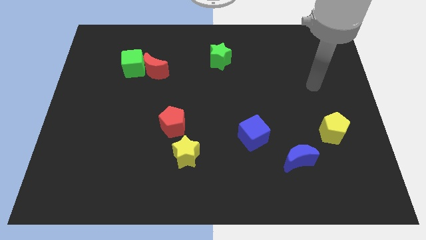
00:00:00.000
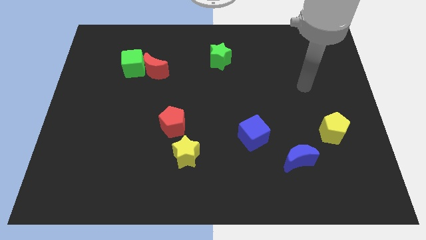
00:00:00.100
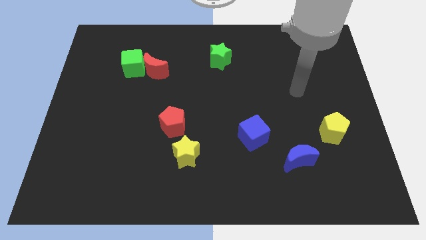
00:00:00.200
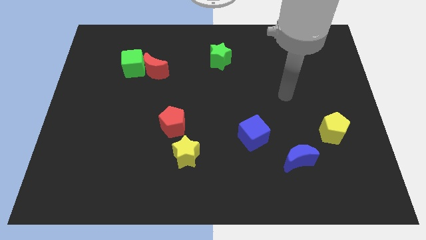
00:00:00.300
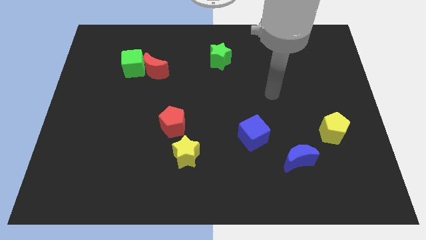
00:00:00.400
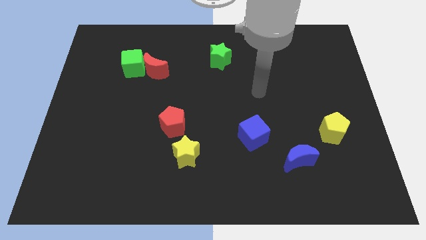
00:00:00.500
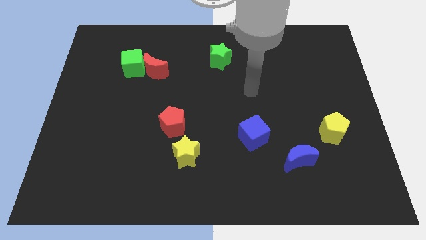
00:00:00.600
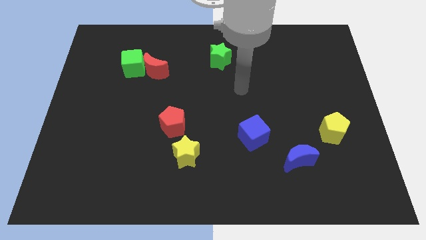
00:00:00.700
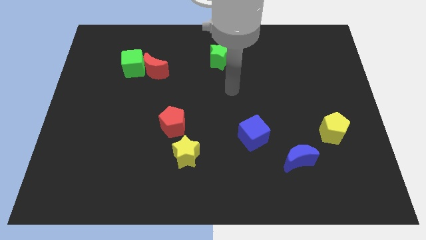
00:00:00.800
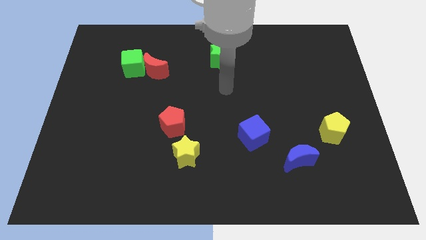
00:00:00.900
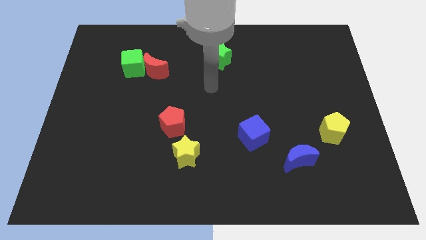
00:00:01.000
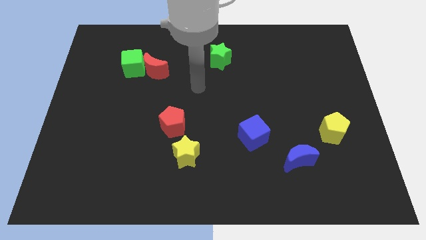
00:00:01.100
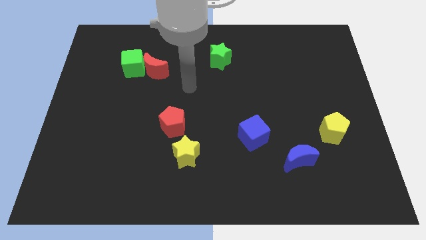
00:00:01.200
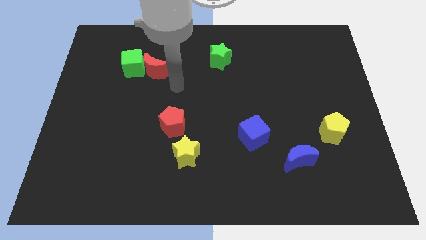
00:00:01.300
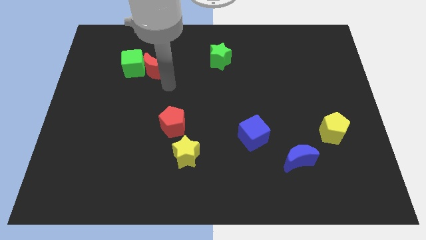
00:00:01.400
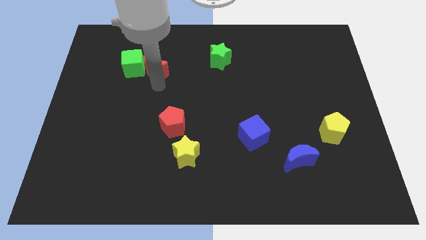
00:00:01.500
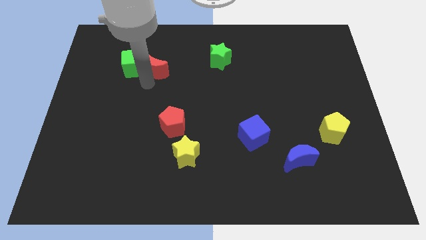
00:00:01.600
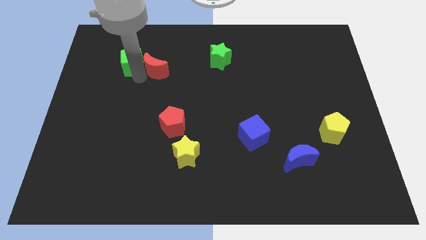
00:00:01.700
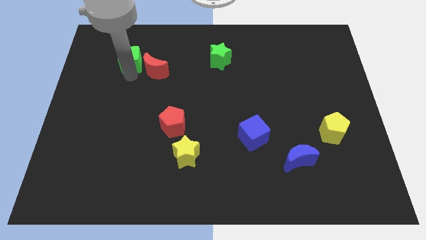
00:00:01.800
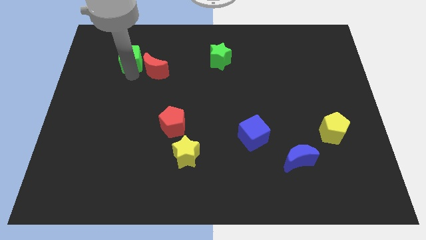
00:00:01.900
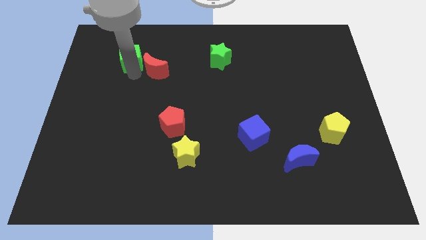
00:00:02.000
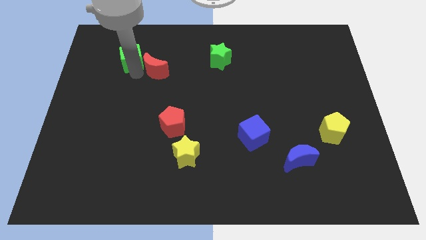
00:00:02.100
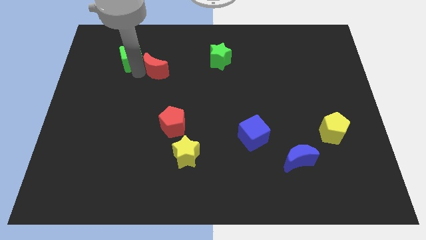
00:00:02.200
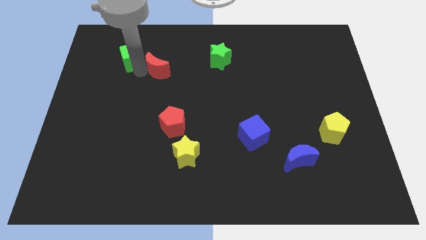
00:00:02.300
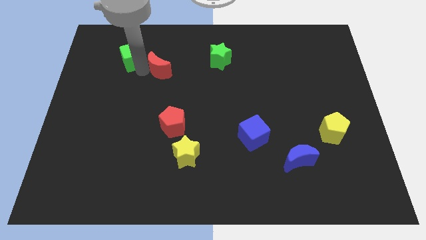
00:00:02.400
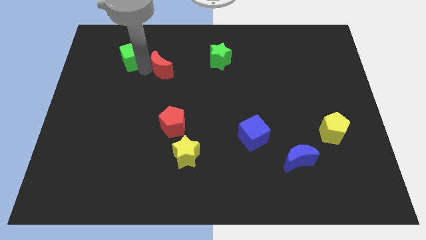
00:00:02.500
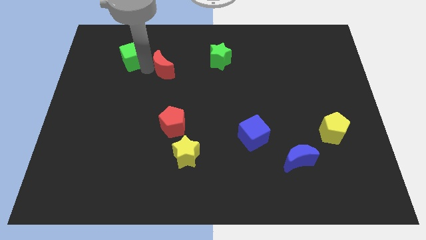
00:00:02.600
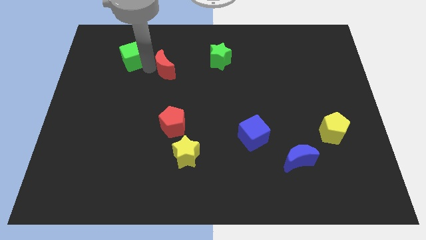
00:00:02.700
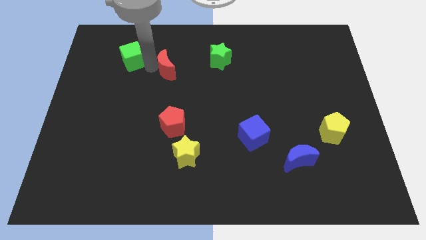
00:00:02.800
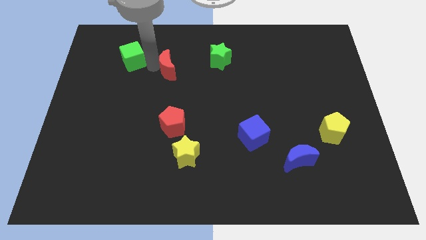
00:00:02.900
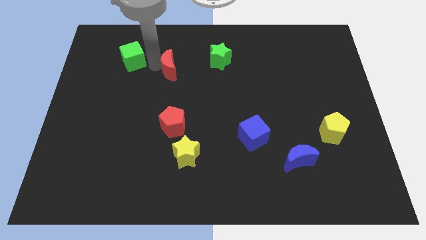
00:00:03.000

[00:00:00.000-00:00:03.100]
pull the red moon apart from the green cube

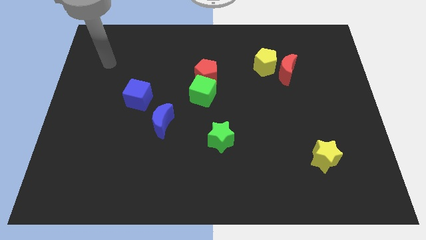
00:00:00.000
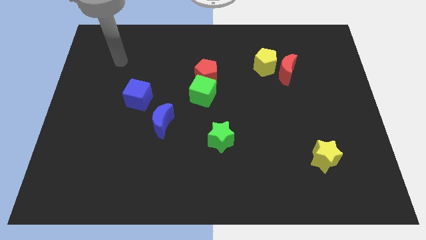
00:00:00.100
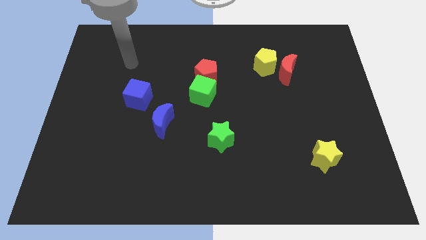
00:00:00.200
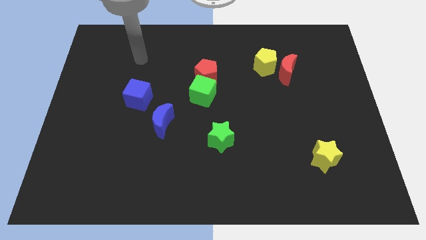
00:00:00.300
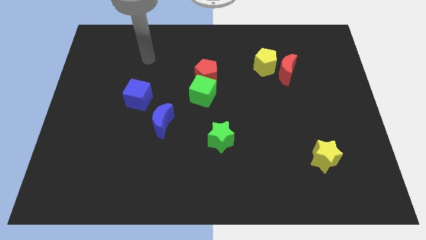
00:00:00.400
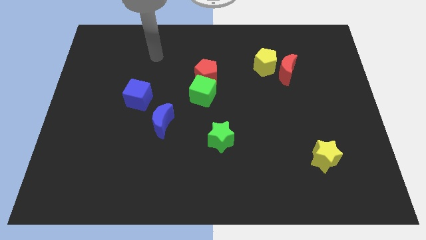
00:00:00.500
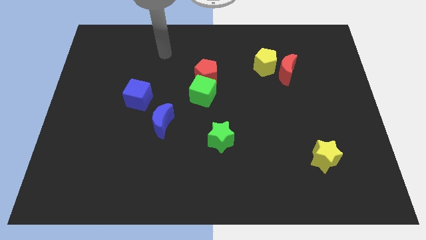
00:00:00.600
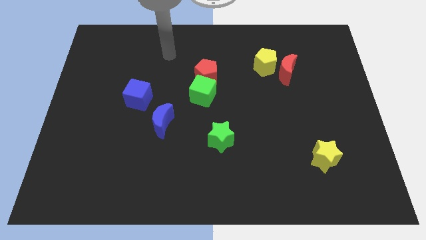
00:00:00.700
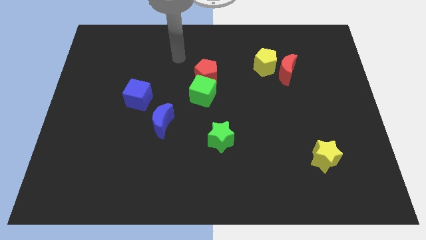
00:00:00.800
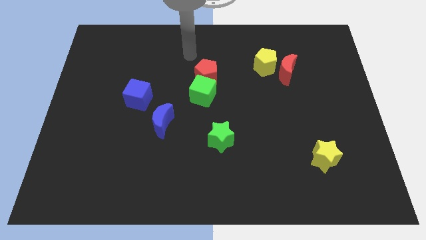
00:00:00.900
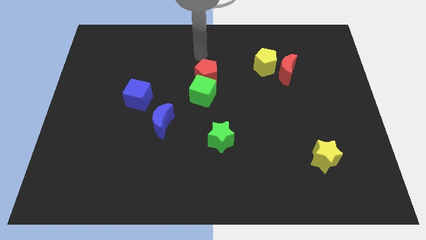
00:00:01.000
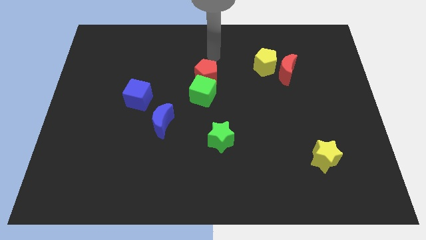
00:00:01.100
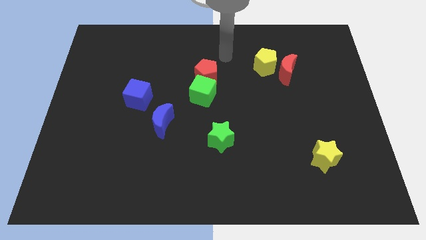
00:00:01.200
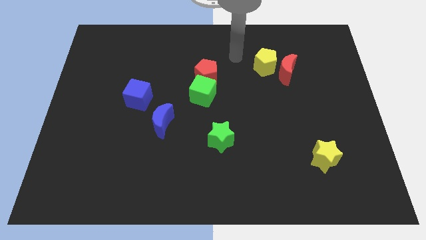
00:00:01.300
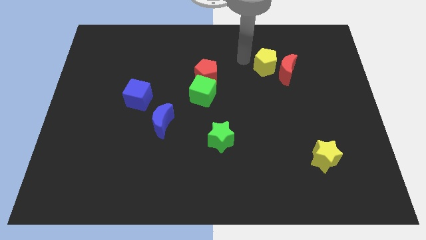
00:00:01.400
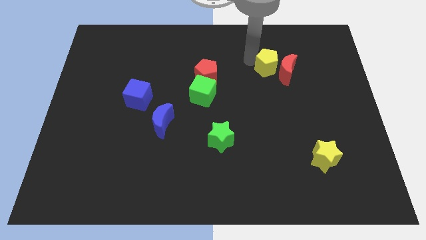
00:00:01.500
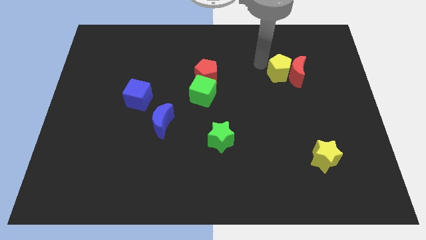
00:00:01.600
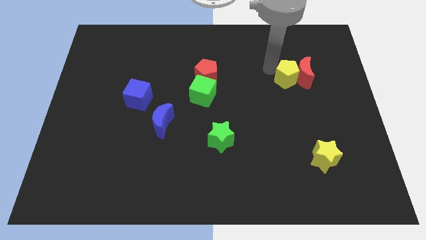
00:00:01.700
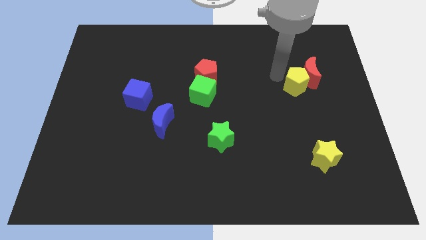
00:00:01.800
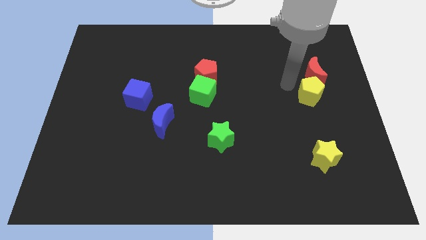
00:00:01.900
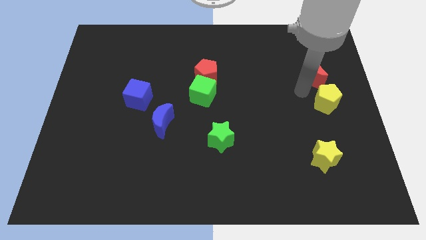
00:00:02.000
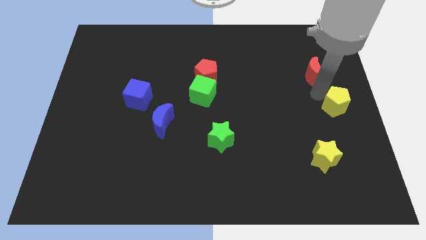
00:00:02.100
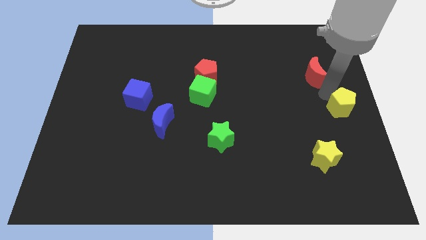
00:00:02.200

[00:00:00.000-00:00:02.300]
separate the red moon from the yellow pentagon

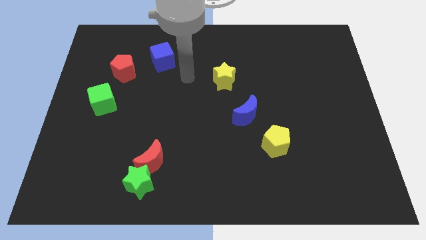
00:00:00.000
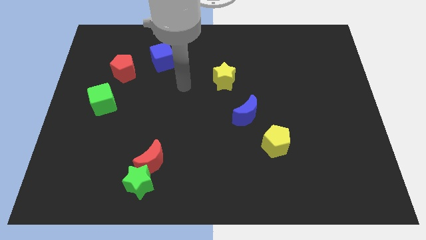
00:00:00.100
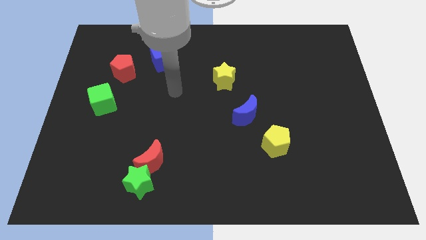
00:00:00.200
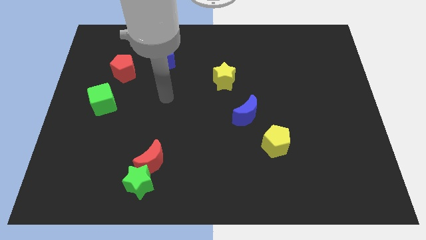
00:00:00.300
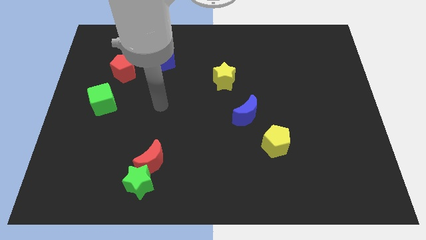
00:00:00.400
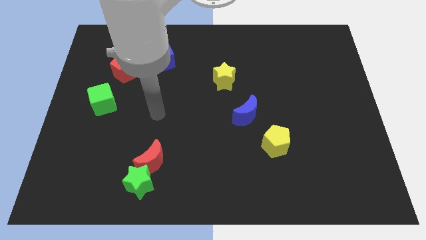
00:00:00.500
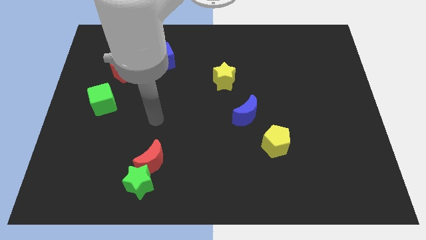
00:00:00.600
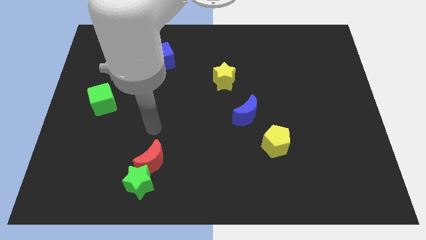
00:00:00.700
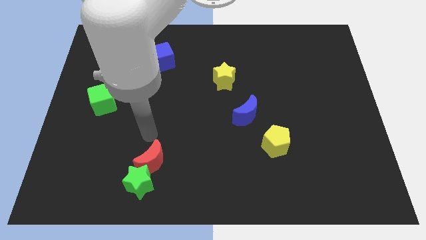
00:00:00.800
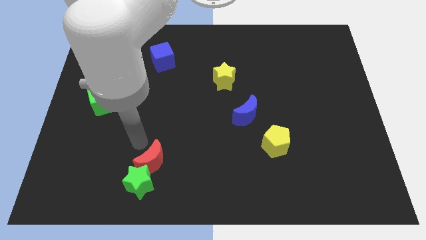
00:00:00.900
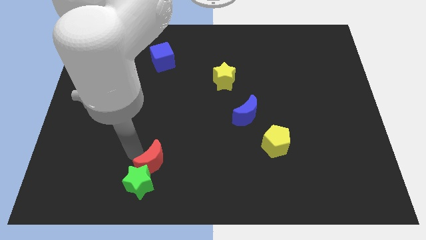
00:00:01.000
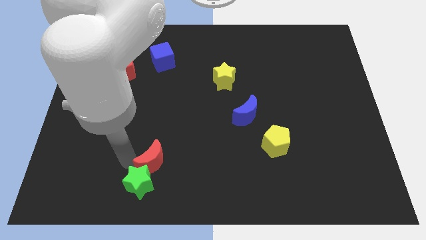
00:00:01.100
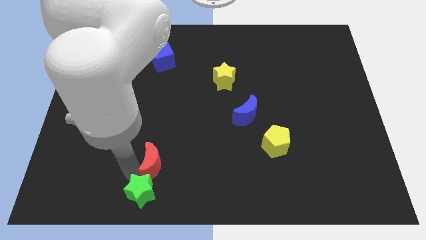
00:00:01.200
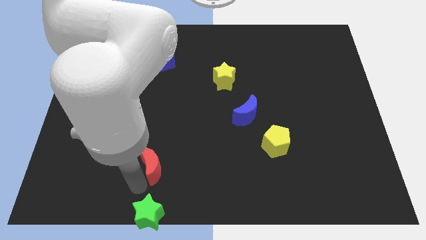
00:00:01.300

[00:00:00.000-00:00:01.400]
separate the red moon from the green star

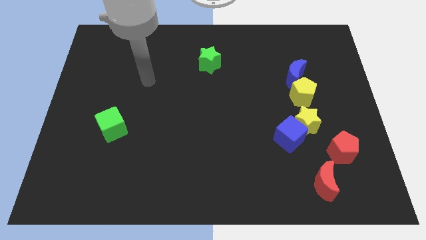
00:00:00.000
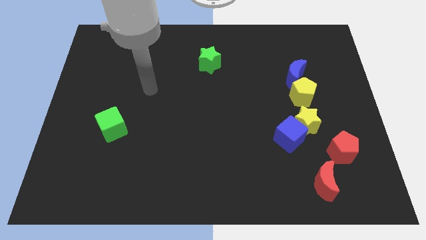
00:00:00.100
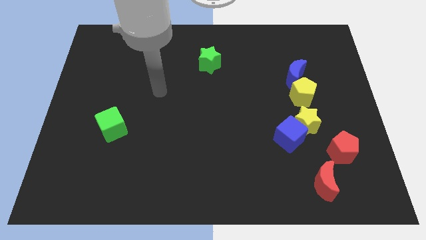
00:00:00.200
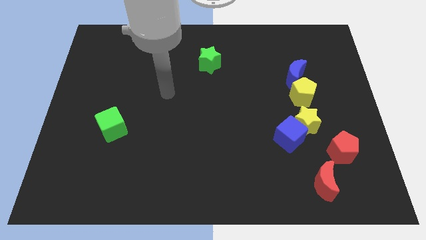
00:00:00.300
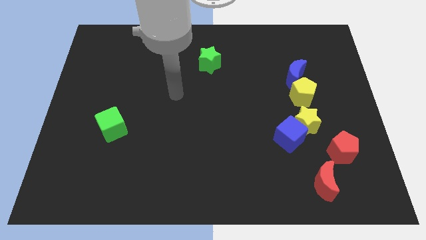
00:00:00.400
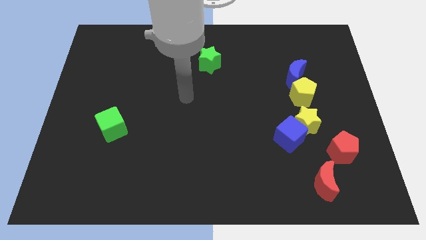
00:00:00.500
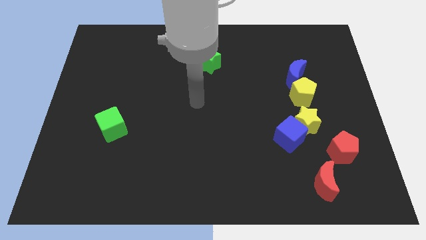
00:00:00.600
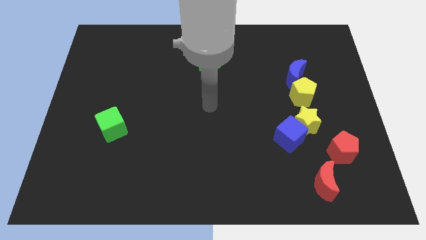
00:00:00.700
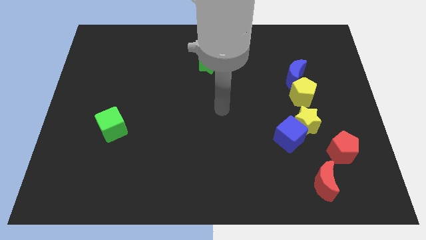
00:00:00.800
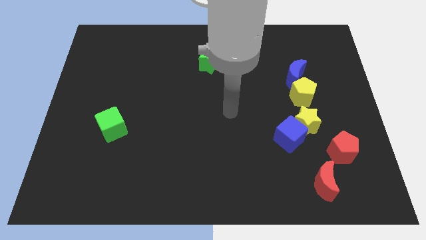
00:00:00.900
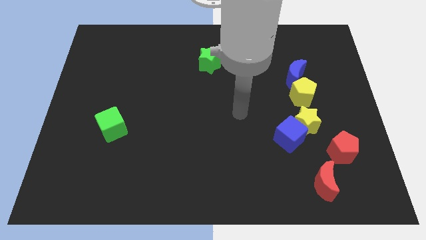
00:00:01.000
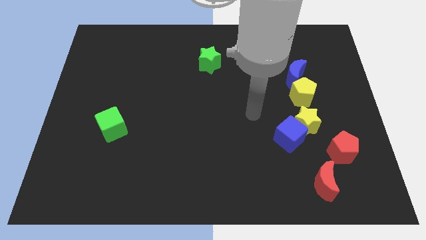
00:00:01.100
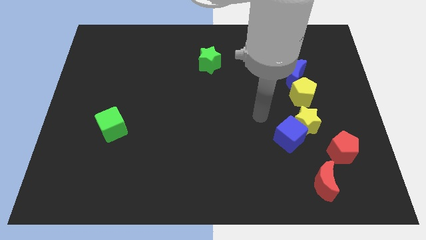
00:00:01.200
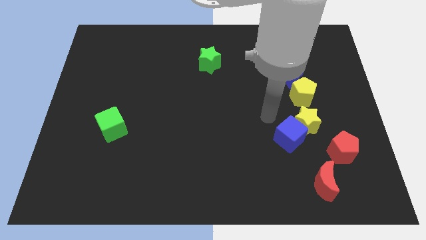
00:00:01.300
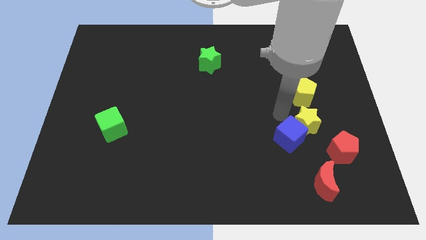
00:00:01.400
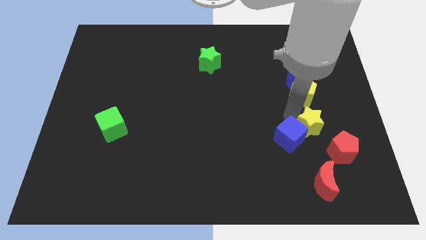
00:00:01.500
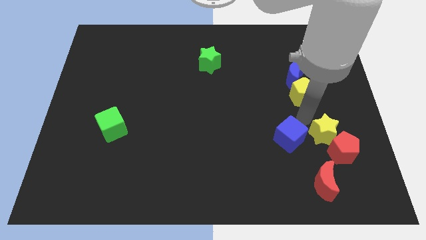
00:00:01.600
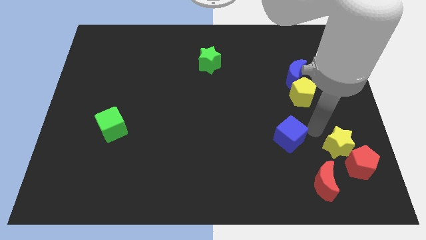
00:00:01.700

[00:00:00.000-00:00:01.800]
pull the blue cube apart from the yellow star

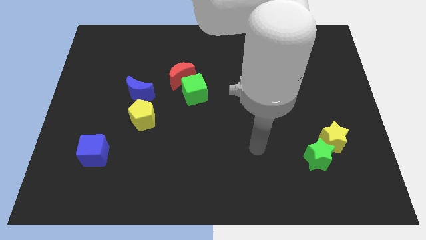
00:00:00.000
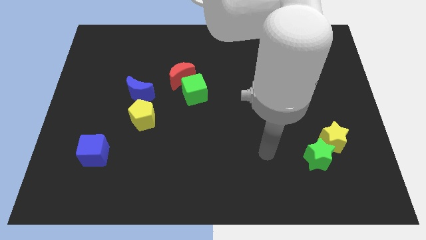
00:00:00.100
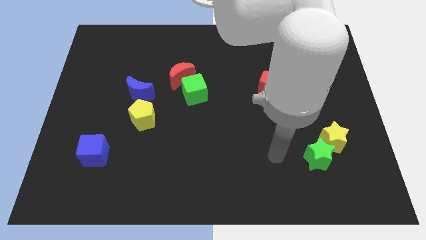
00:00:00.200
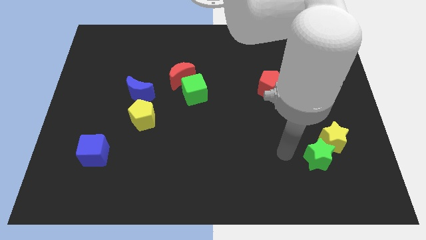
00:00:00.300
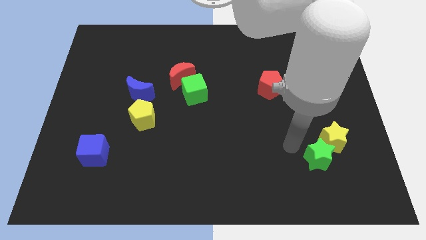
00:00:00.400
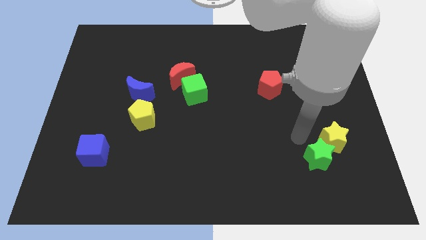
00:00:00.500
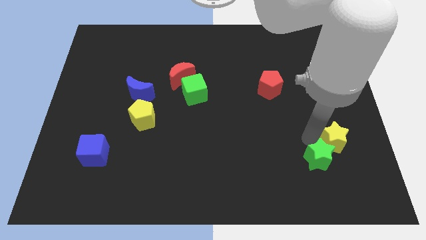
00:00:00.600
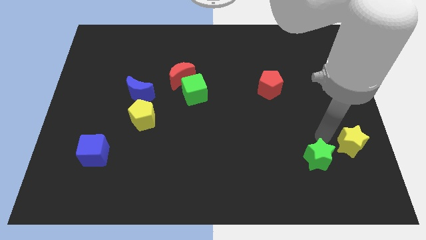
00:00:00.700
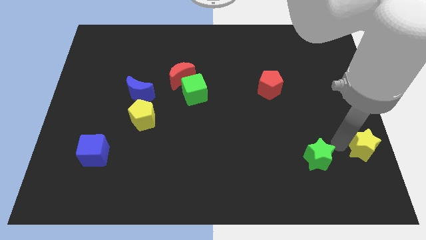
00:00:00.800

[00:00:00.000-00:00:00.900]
move the green star away from the yellow star
